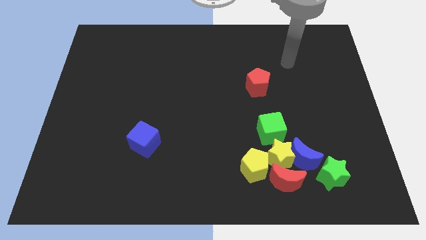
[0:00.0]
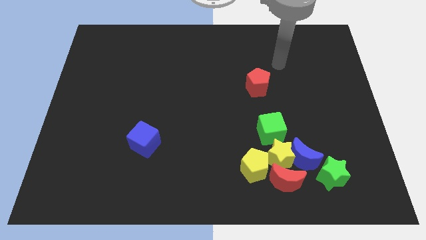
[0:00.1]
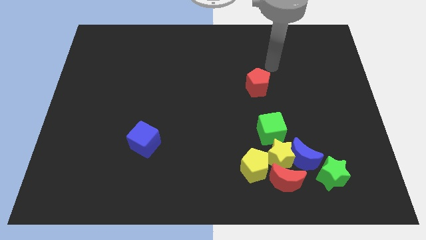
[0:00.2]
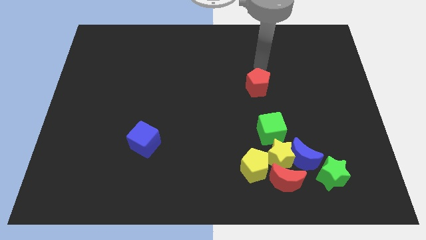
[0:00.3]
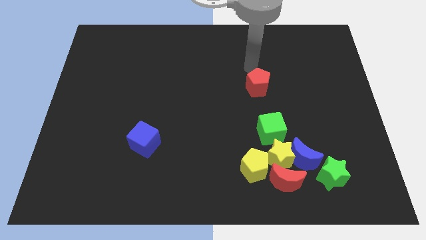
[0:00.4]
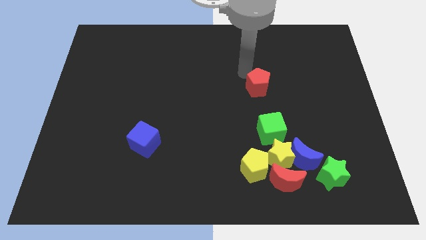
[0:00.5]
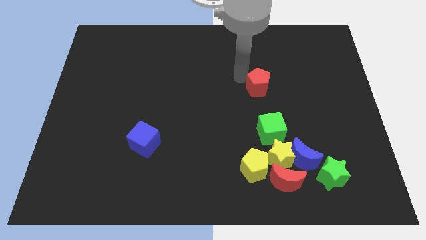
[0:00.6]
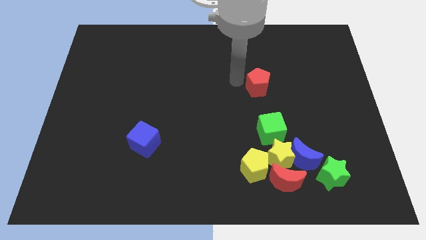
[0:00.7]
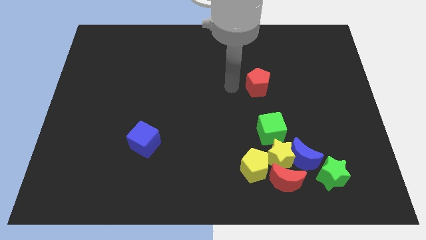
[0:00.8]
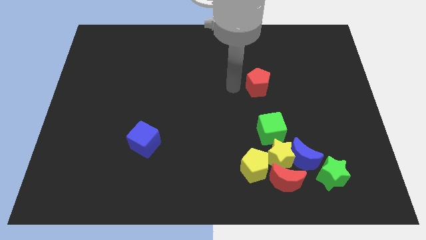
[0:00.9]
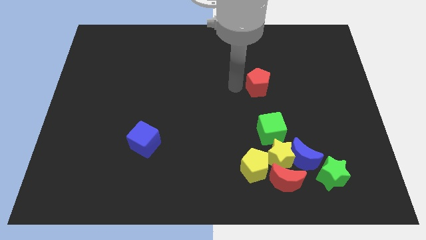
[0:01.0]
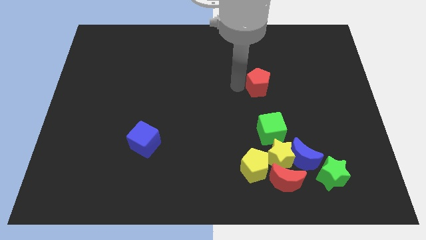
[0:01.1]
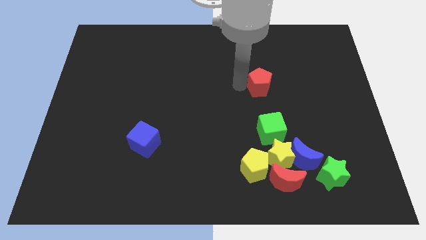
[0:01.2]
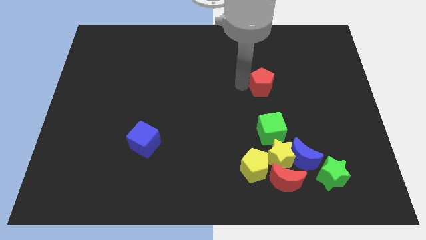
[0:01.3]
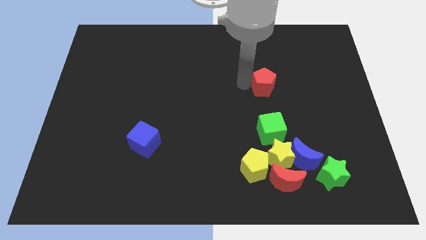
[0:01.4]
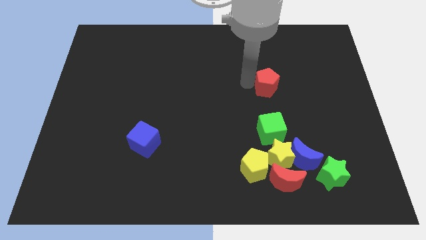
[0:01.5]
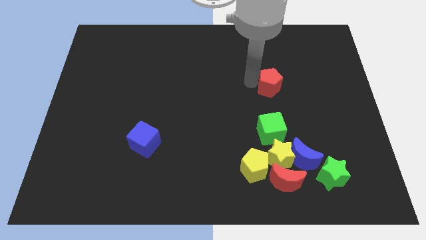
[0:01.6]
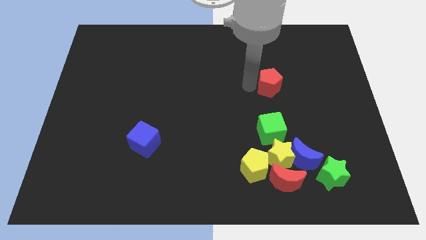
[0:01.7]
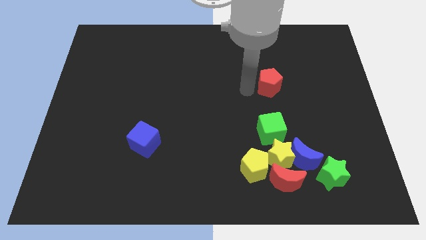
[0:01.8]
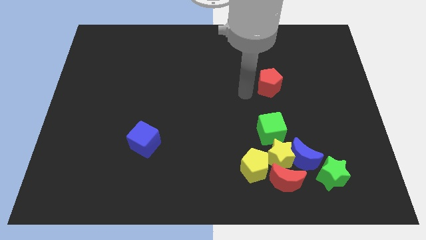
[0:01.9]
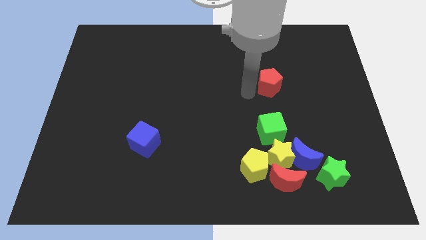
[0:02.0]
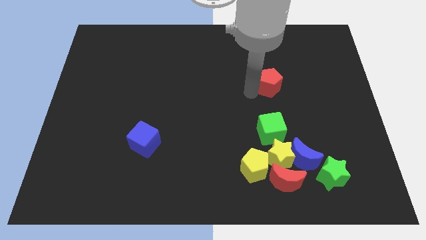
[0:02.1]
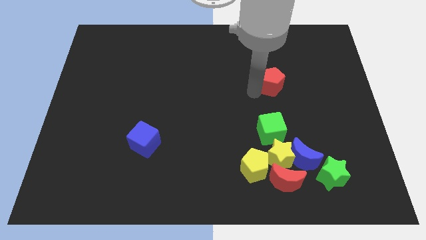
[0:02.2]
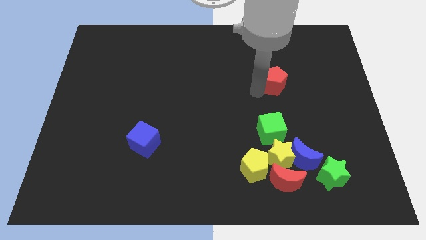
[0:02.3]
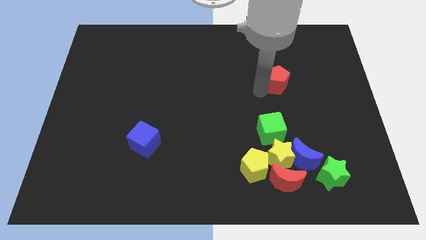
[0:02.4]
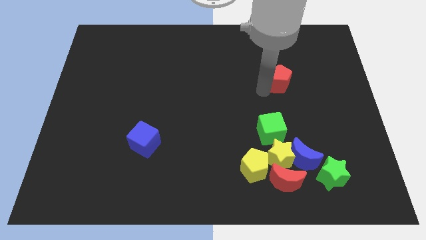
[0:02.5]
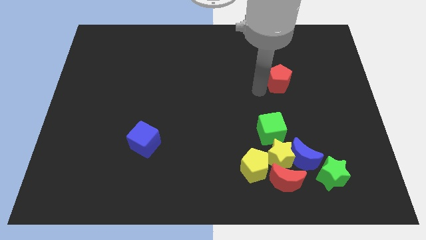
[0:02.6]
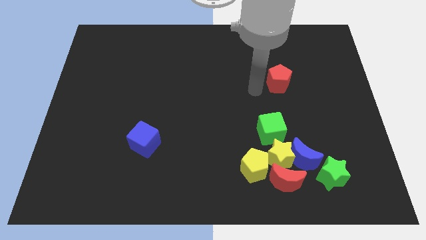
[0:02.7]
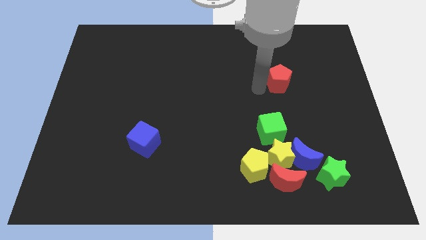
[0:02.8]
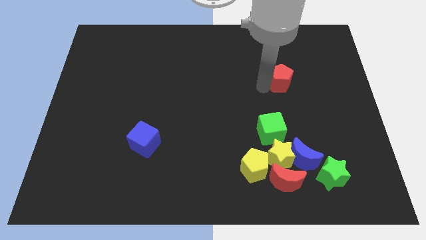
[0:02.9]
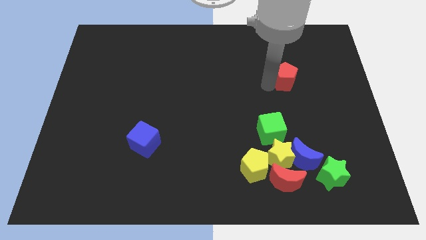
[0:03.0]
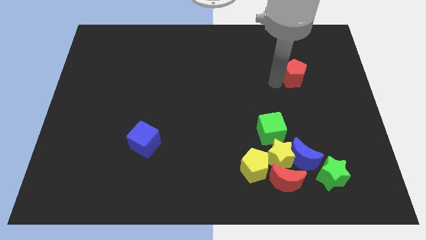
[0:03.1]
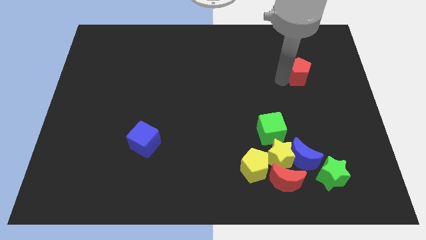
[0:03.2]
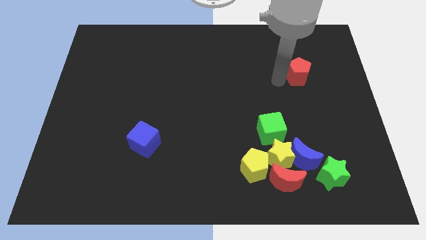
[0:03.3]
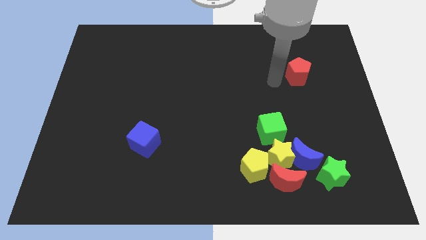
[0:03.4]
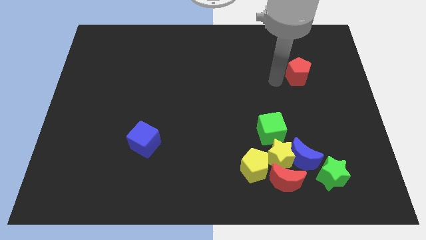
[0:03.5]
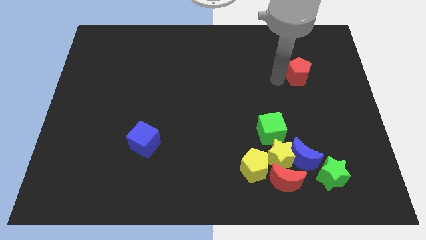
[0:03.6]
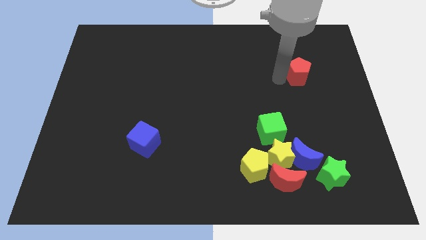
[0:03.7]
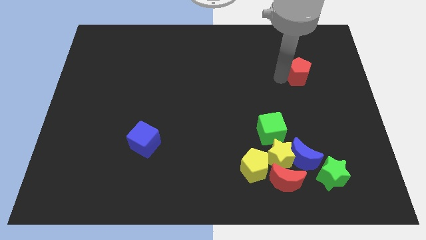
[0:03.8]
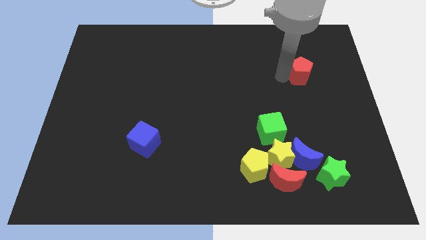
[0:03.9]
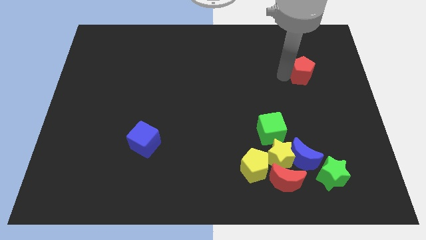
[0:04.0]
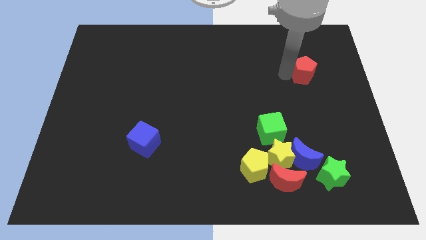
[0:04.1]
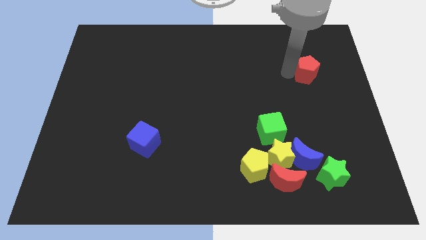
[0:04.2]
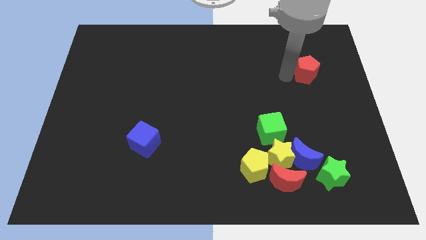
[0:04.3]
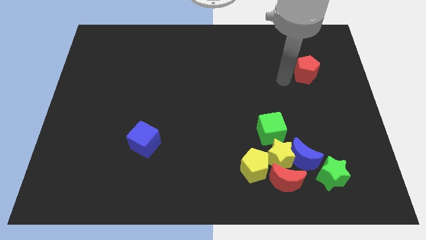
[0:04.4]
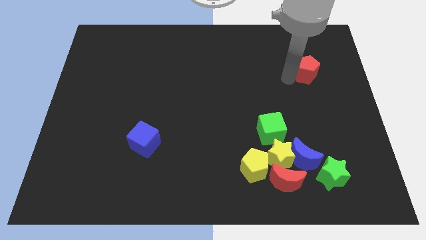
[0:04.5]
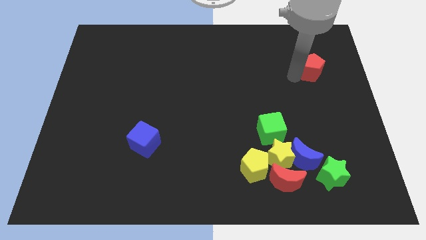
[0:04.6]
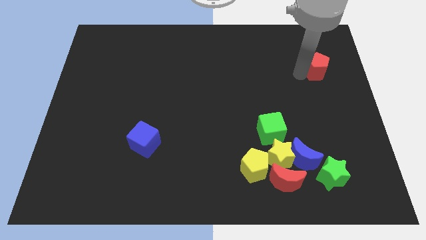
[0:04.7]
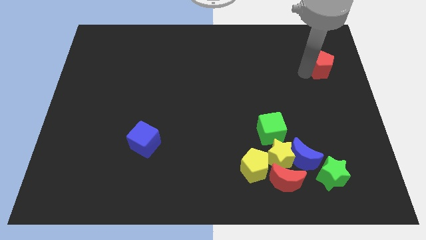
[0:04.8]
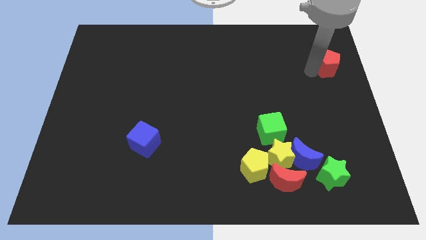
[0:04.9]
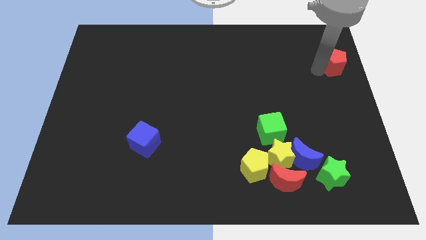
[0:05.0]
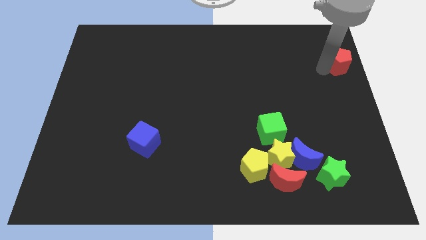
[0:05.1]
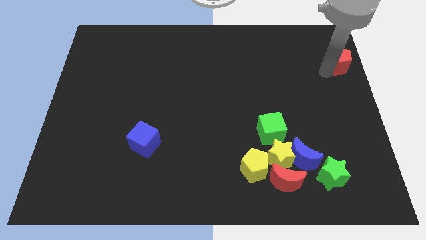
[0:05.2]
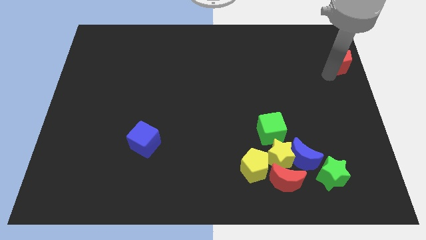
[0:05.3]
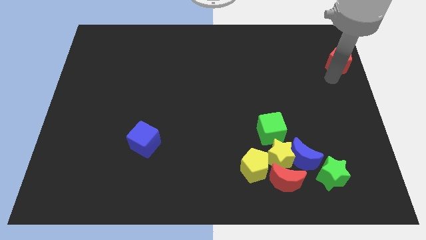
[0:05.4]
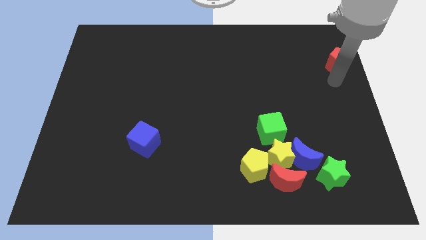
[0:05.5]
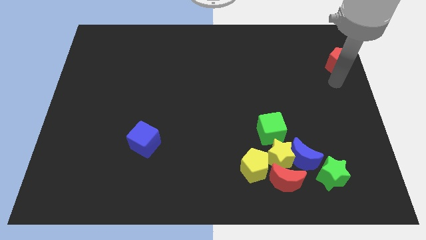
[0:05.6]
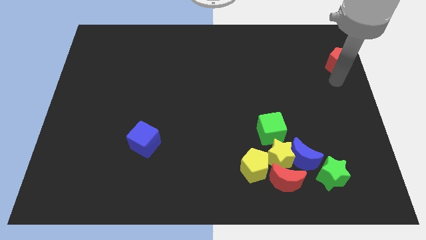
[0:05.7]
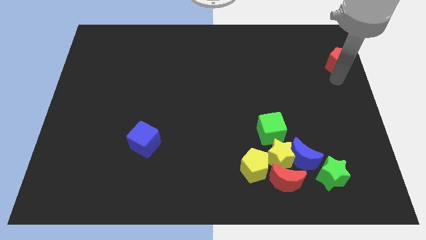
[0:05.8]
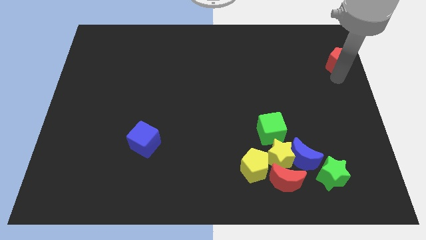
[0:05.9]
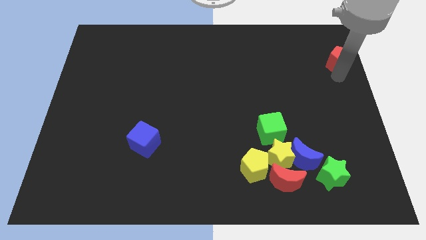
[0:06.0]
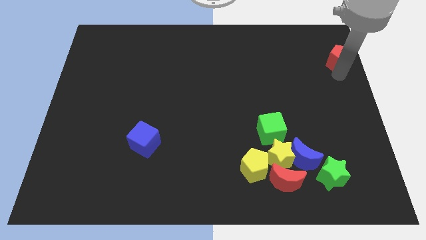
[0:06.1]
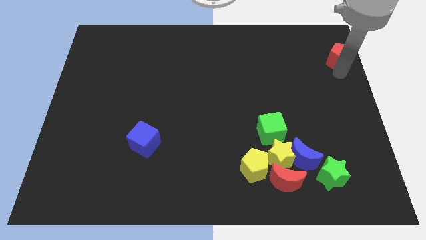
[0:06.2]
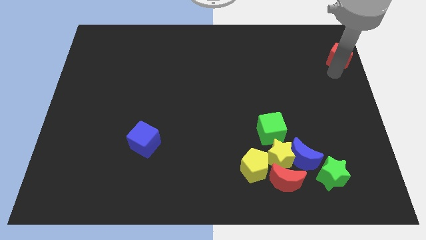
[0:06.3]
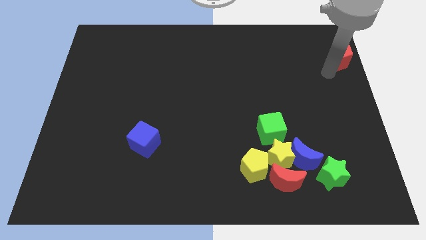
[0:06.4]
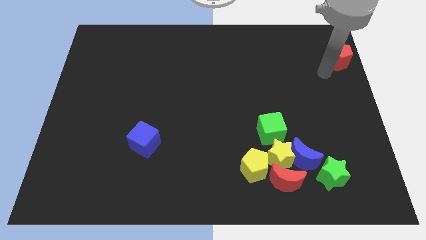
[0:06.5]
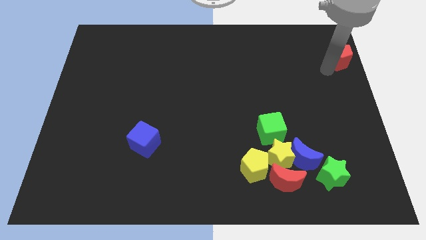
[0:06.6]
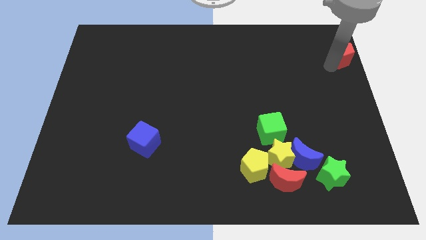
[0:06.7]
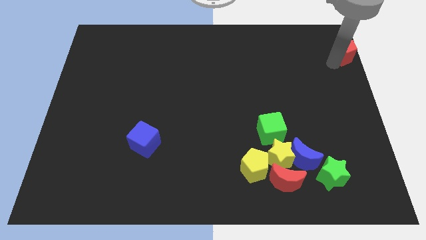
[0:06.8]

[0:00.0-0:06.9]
move the red pentagon to the top right of the board
